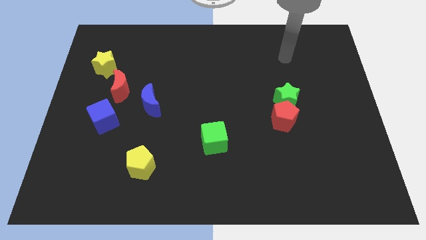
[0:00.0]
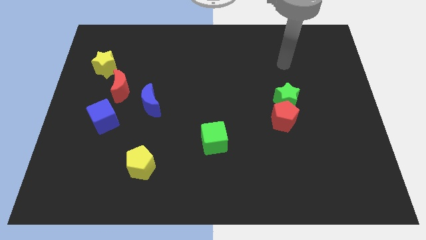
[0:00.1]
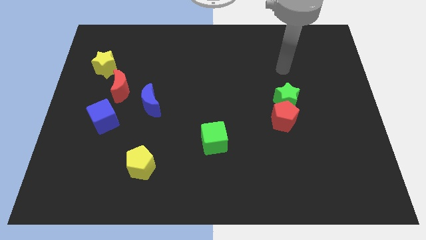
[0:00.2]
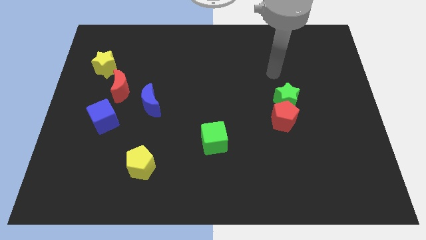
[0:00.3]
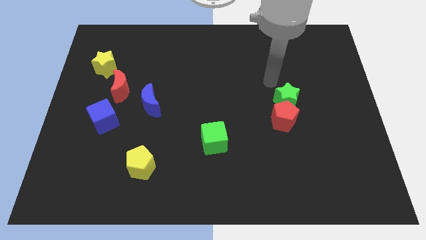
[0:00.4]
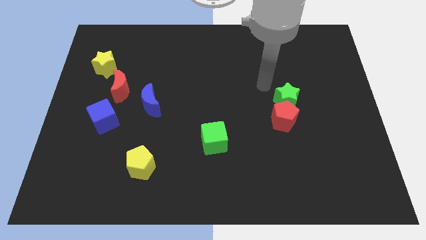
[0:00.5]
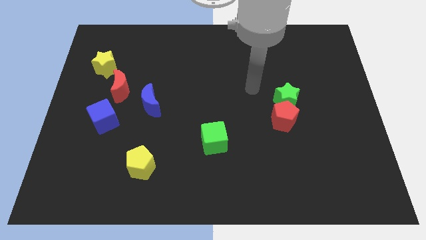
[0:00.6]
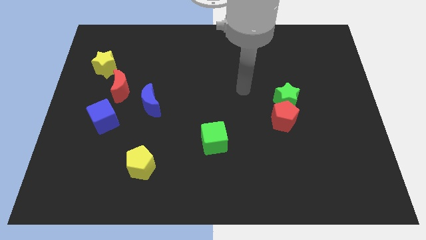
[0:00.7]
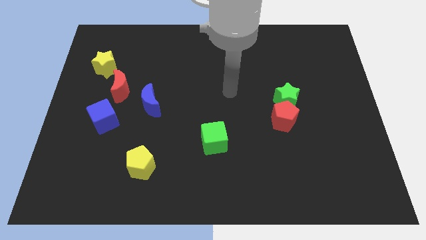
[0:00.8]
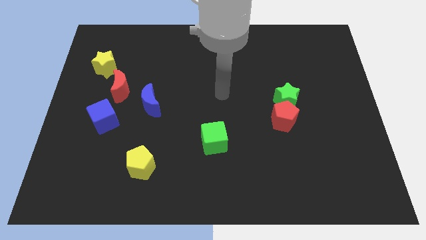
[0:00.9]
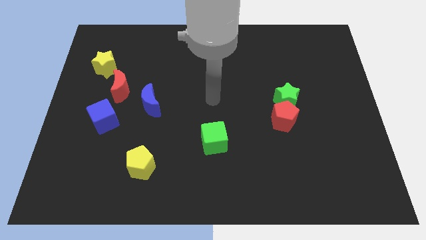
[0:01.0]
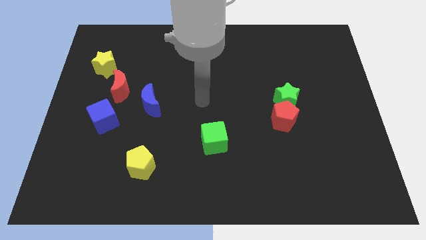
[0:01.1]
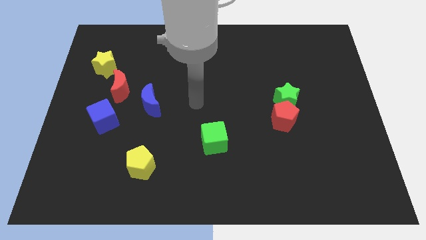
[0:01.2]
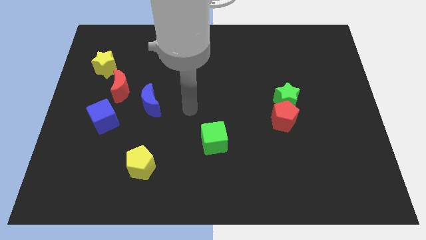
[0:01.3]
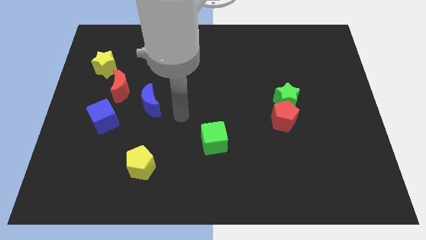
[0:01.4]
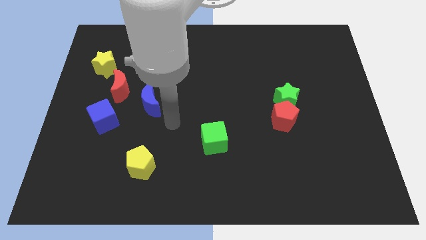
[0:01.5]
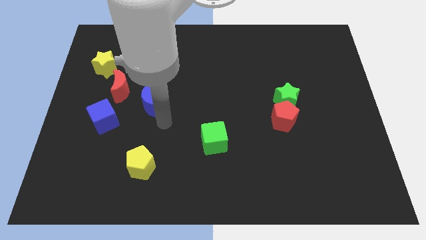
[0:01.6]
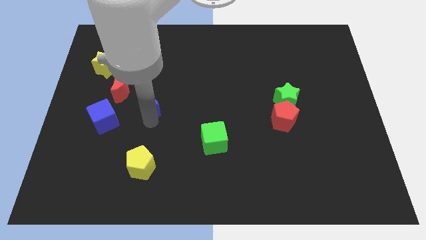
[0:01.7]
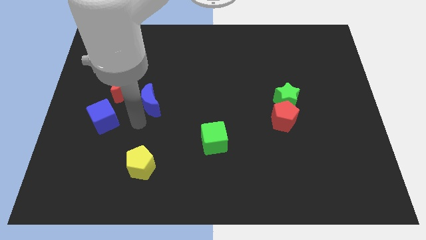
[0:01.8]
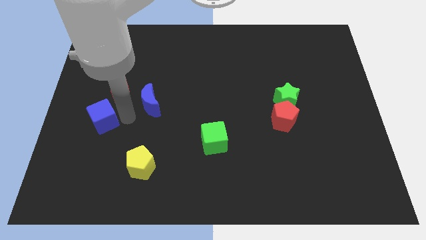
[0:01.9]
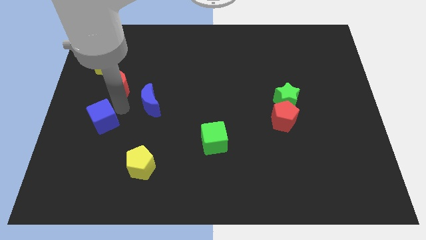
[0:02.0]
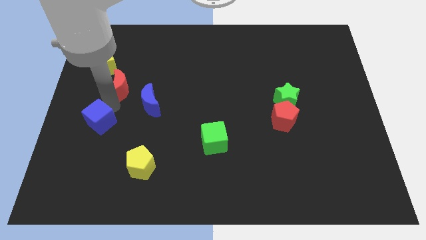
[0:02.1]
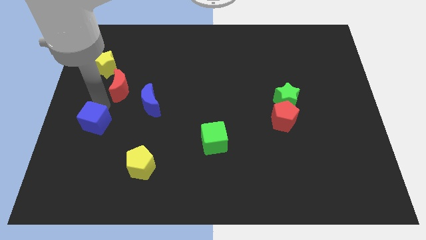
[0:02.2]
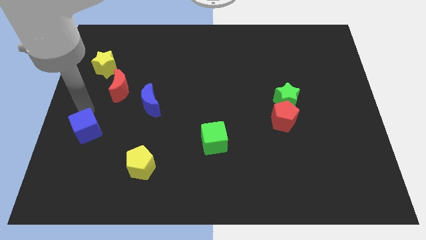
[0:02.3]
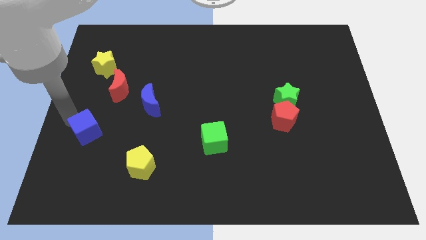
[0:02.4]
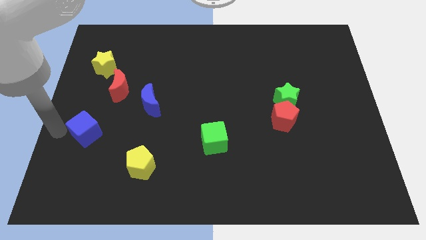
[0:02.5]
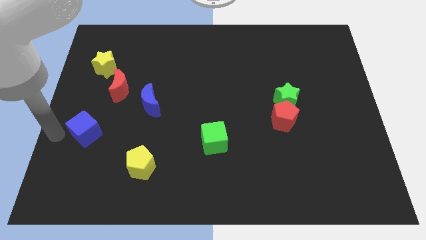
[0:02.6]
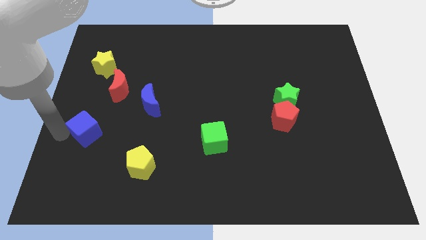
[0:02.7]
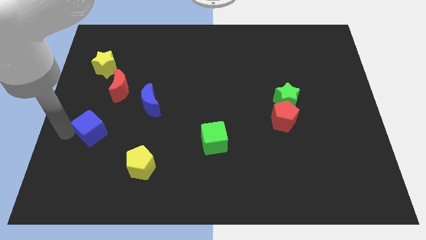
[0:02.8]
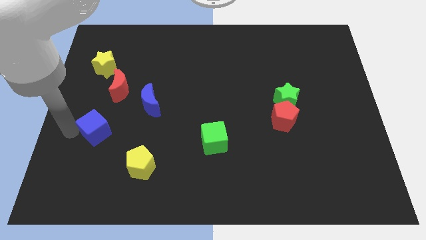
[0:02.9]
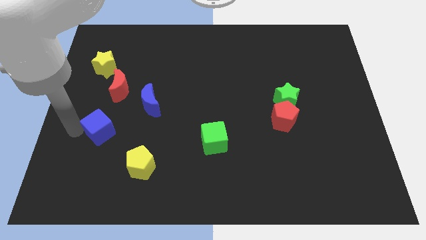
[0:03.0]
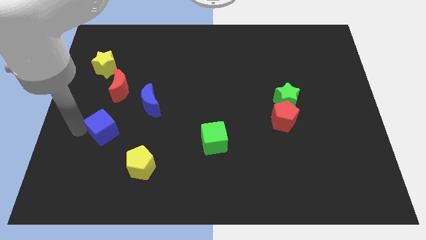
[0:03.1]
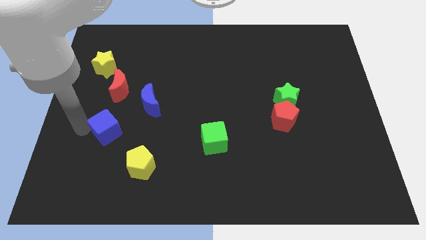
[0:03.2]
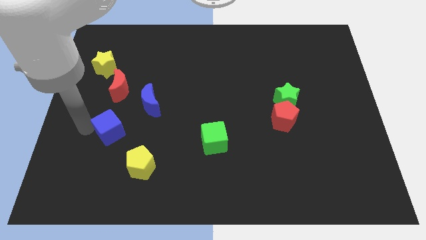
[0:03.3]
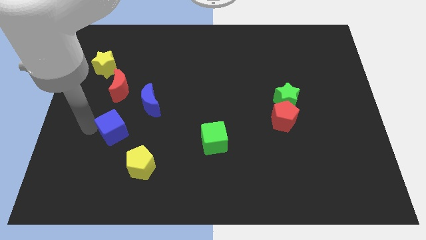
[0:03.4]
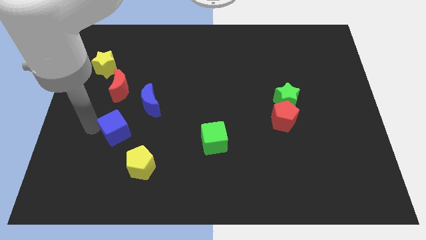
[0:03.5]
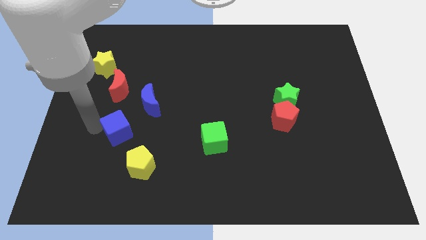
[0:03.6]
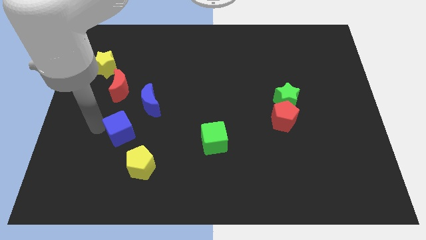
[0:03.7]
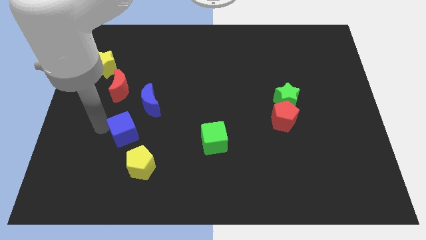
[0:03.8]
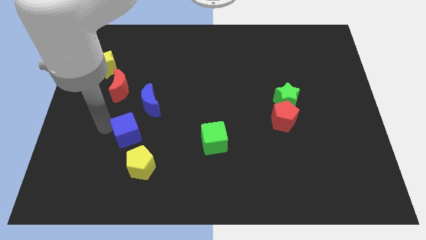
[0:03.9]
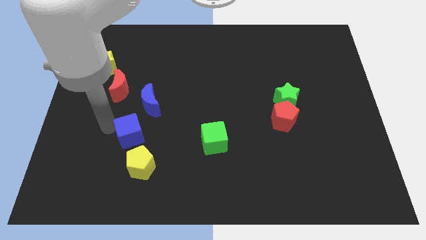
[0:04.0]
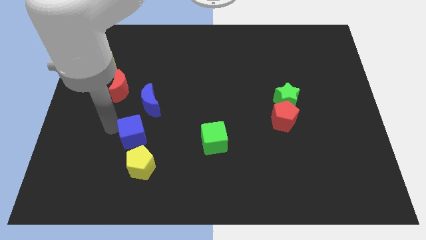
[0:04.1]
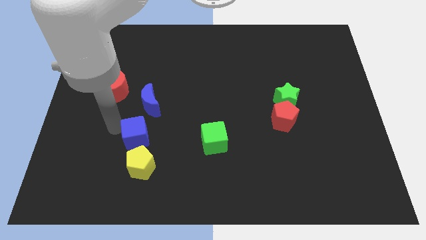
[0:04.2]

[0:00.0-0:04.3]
slightly push the blue cube to the right

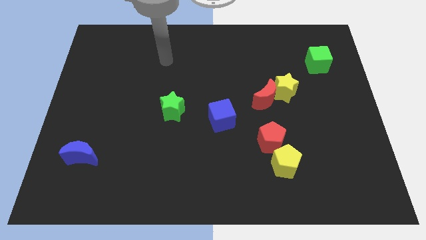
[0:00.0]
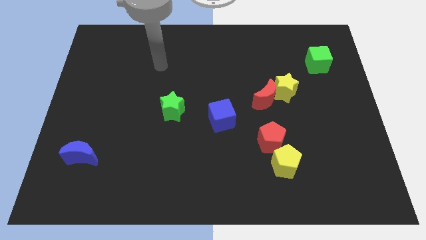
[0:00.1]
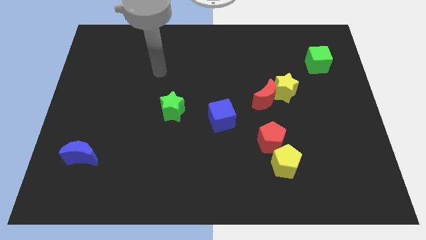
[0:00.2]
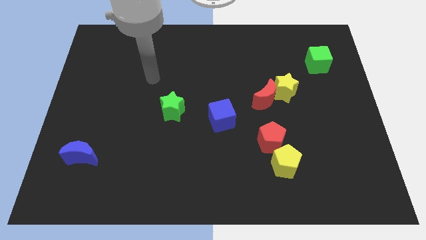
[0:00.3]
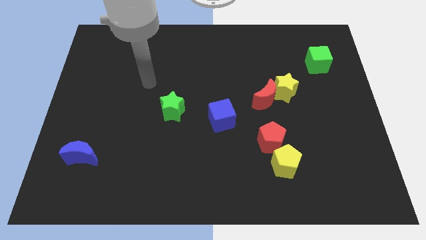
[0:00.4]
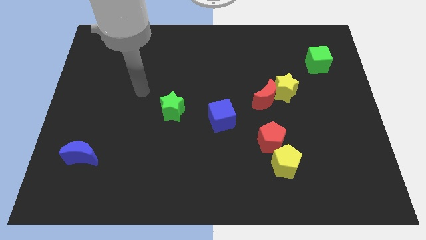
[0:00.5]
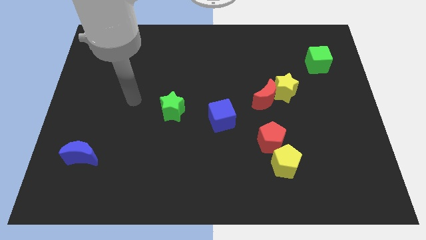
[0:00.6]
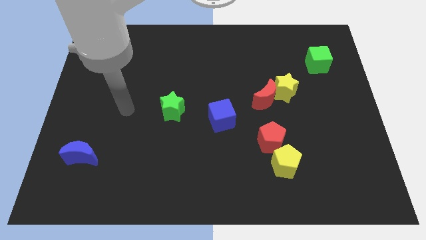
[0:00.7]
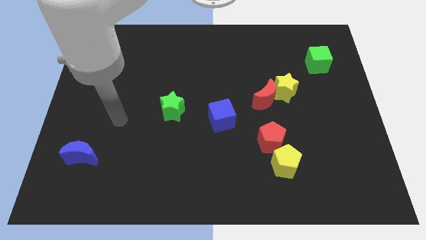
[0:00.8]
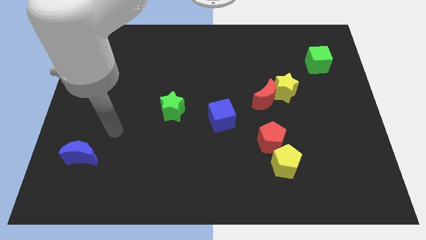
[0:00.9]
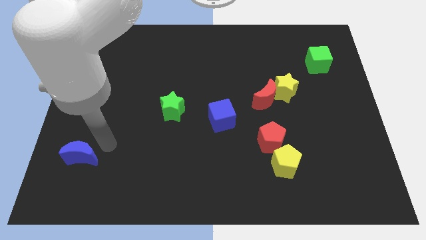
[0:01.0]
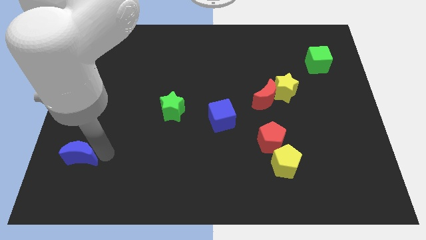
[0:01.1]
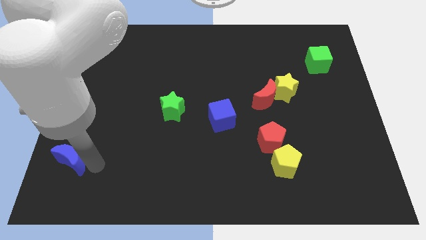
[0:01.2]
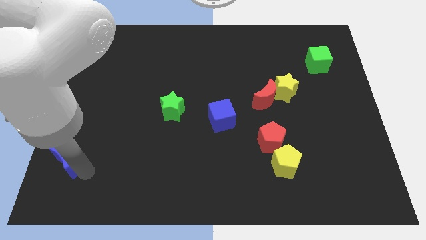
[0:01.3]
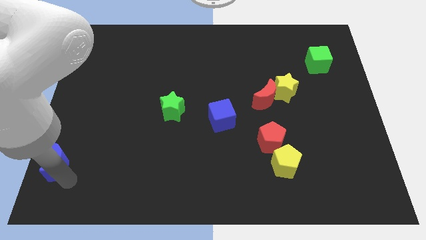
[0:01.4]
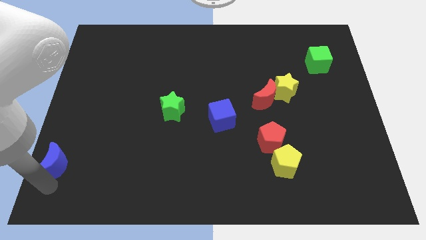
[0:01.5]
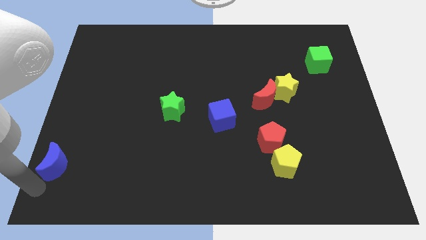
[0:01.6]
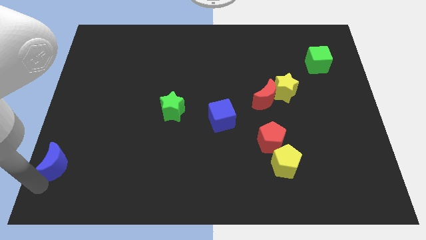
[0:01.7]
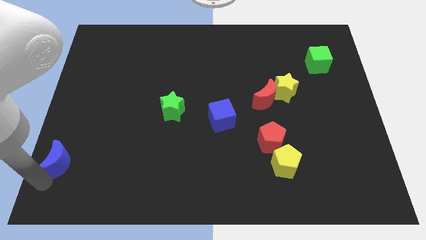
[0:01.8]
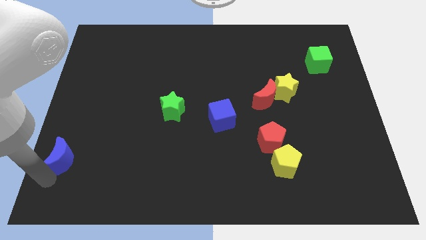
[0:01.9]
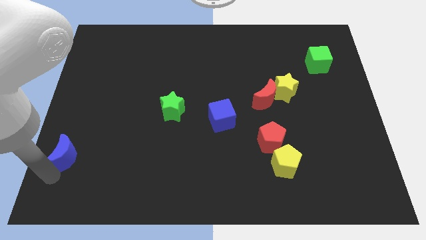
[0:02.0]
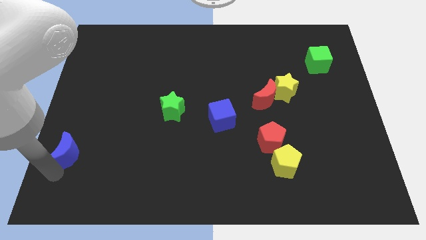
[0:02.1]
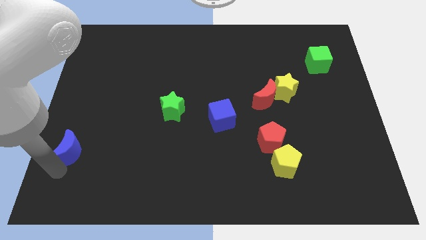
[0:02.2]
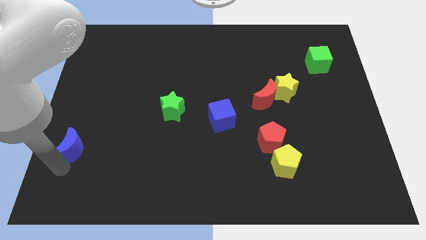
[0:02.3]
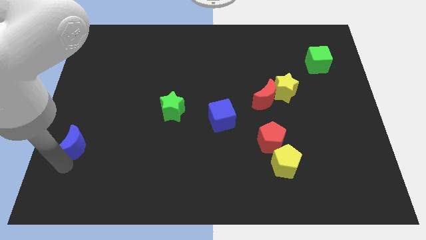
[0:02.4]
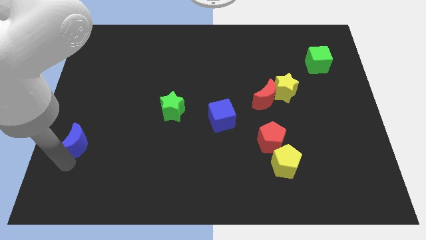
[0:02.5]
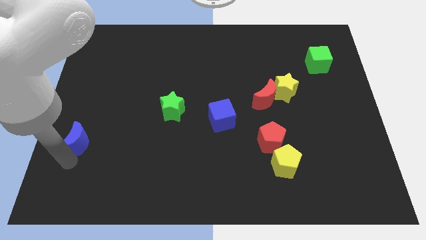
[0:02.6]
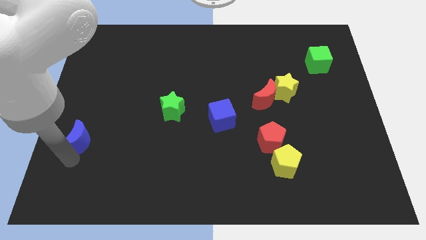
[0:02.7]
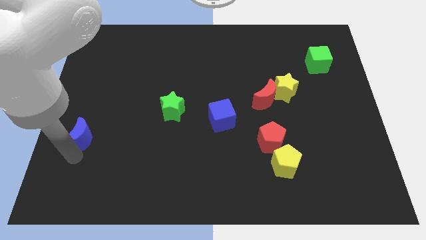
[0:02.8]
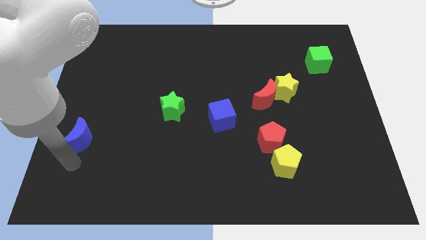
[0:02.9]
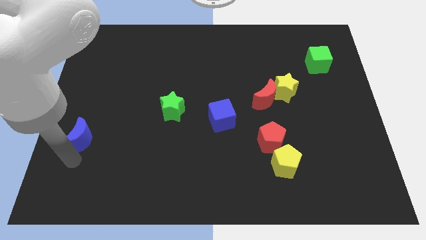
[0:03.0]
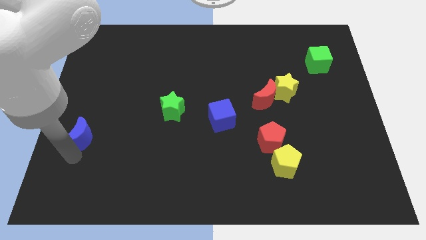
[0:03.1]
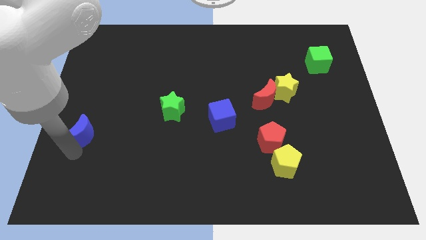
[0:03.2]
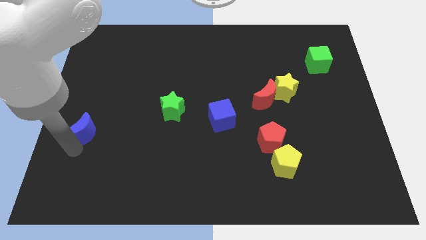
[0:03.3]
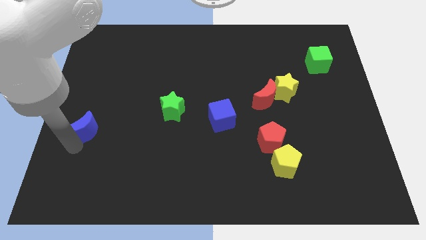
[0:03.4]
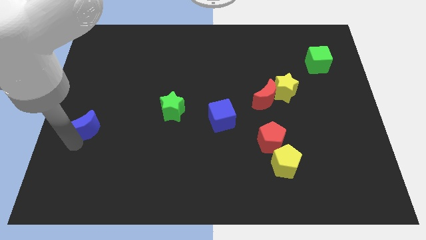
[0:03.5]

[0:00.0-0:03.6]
slide the blue moon somewhat upwards

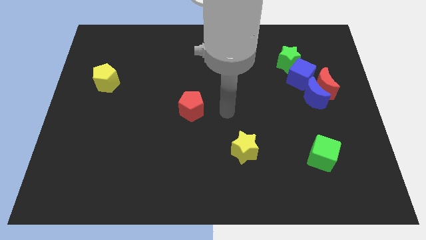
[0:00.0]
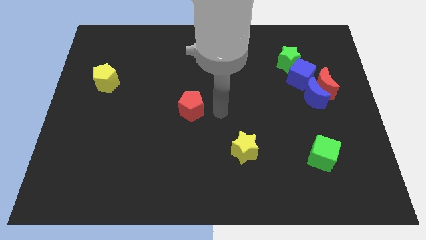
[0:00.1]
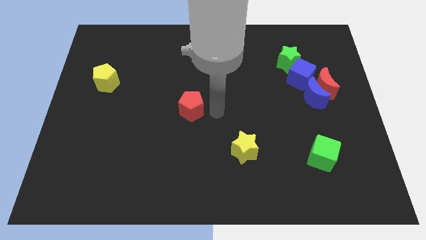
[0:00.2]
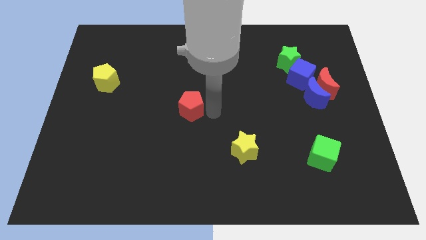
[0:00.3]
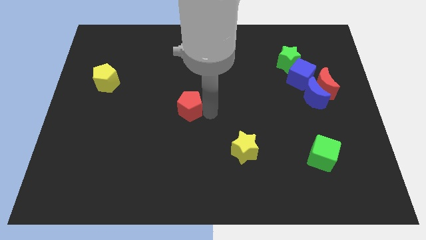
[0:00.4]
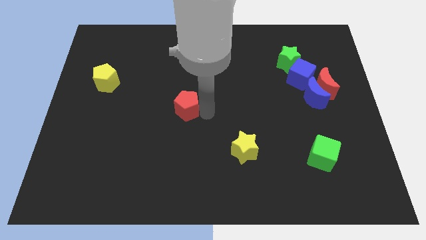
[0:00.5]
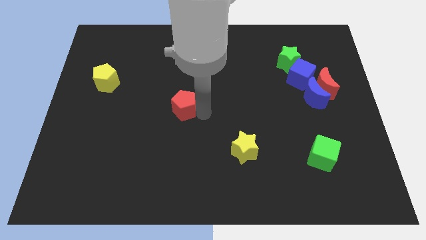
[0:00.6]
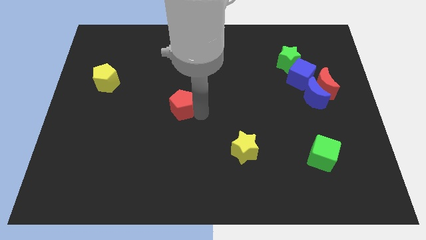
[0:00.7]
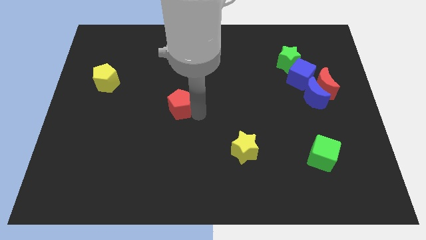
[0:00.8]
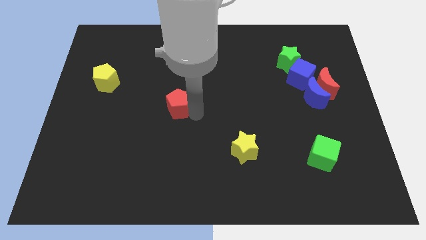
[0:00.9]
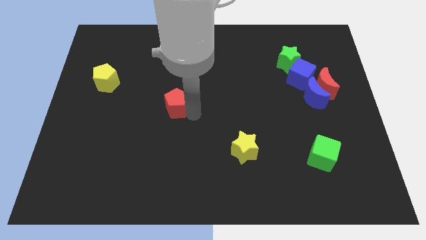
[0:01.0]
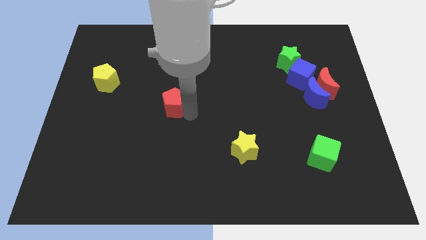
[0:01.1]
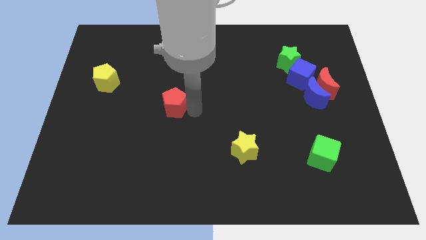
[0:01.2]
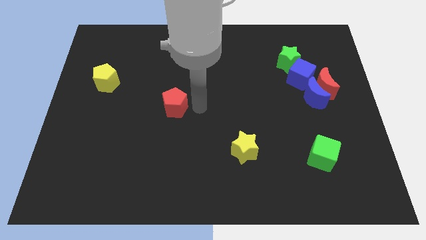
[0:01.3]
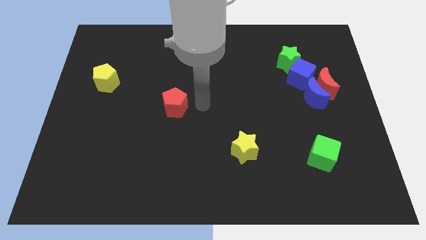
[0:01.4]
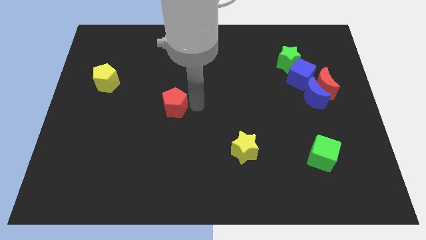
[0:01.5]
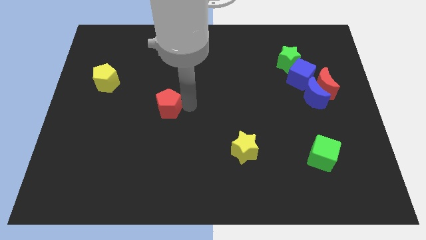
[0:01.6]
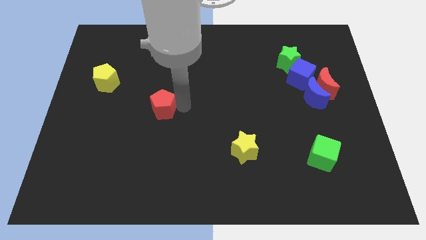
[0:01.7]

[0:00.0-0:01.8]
move the red pentagon a little bit to the left
